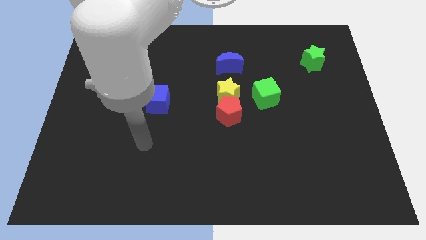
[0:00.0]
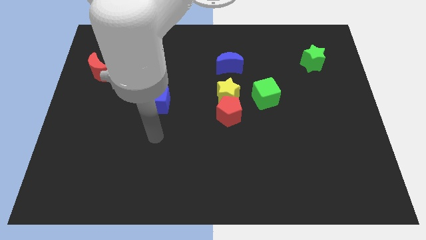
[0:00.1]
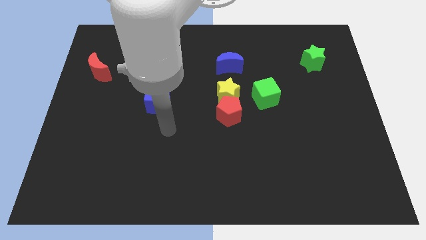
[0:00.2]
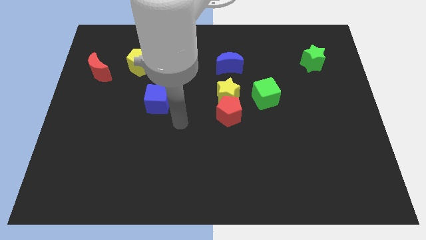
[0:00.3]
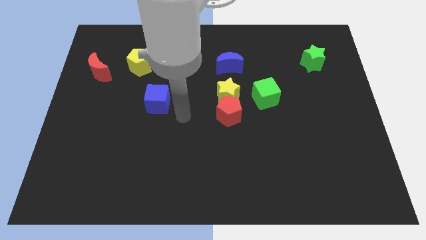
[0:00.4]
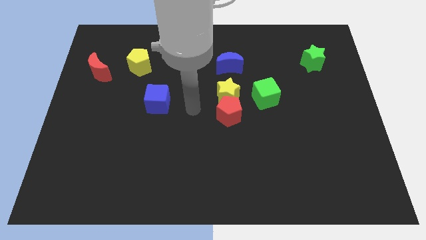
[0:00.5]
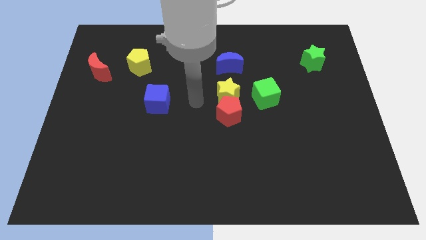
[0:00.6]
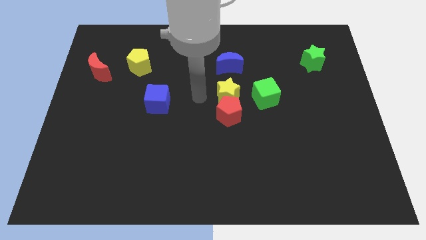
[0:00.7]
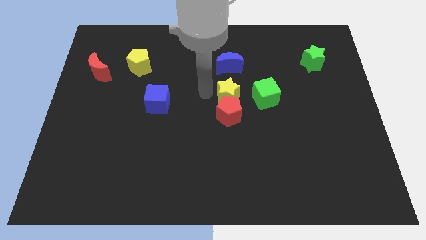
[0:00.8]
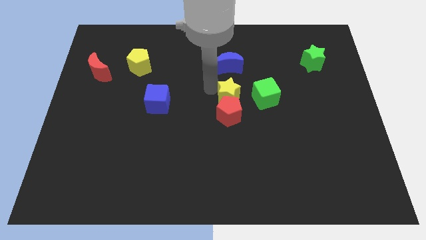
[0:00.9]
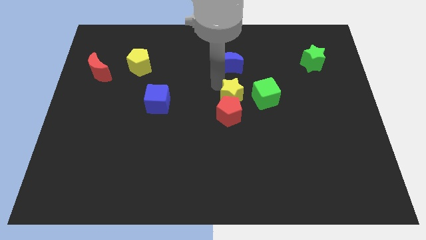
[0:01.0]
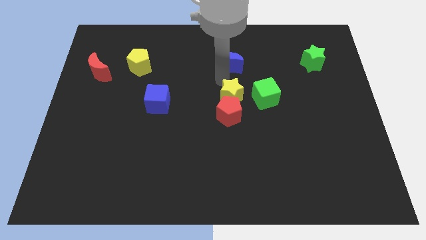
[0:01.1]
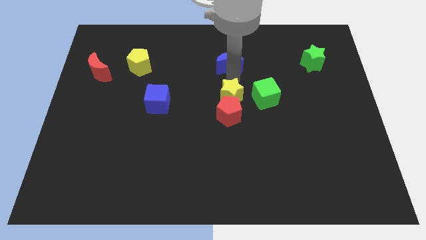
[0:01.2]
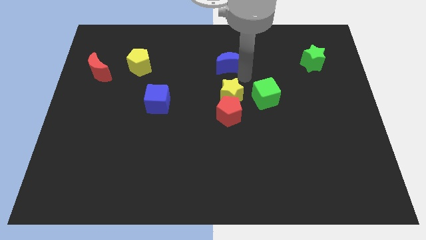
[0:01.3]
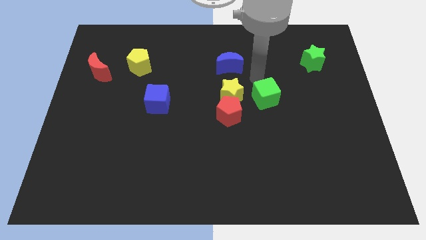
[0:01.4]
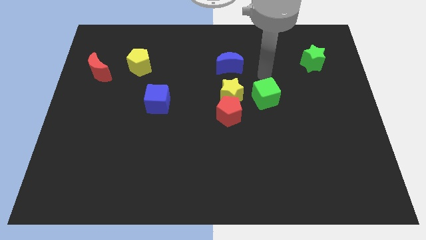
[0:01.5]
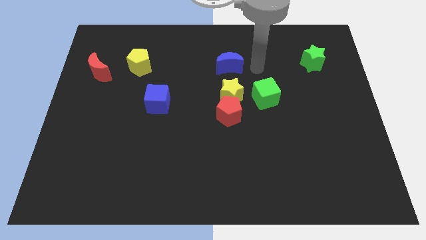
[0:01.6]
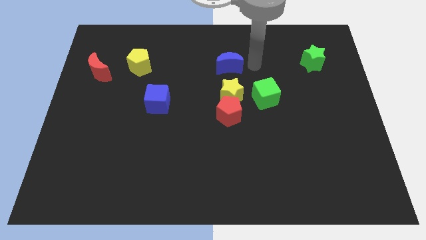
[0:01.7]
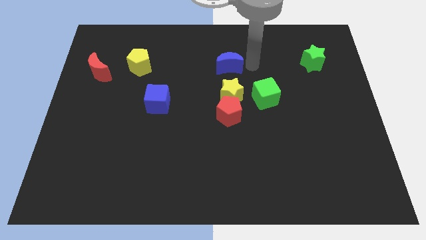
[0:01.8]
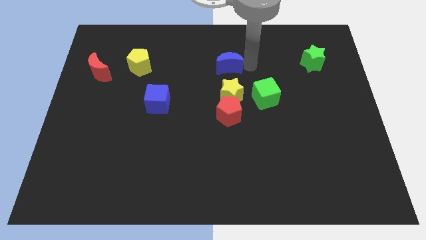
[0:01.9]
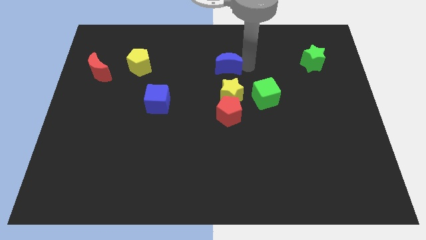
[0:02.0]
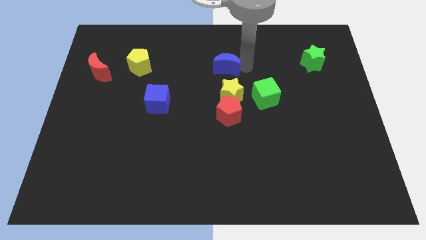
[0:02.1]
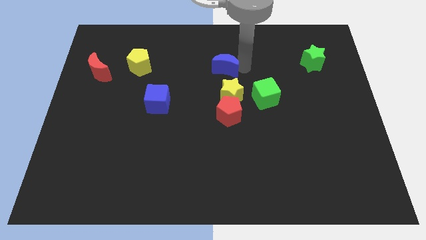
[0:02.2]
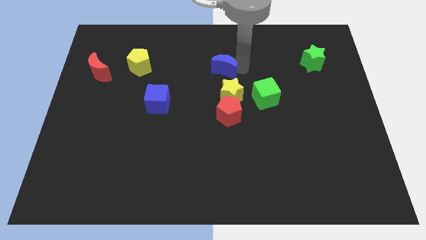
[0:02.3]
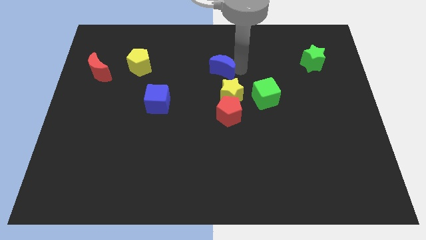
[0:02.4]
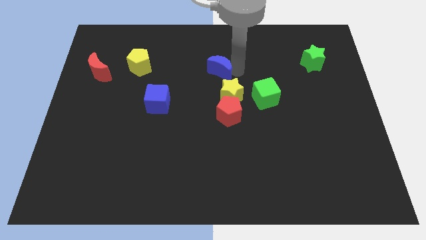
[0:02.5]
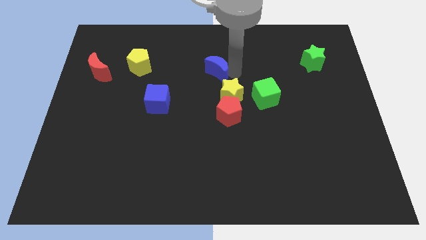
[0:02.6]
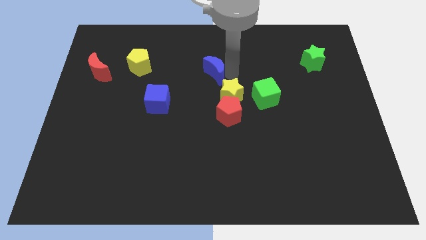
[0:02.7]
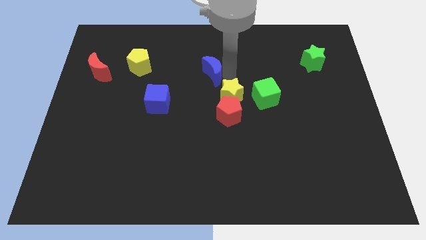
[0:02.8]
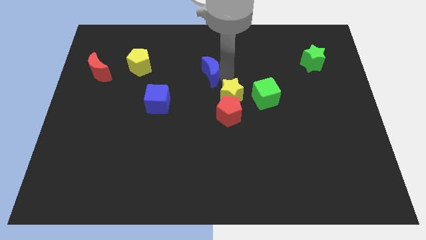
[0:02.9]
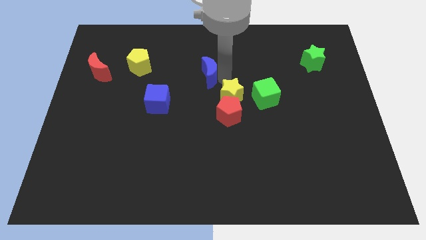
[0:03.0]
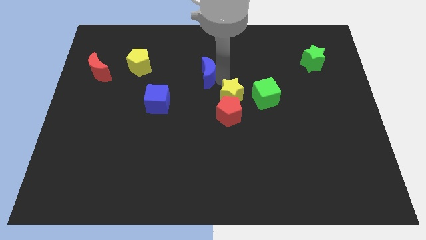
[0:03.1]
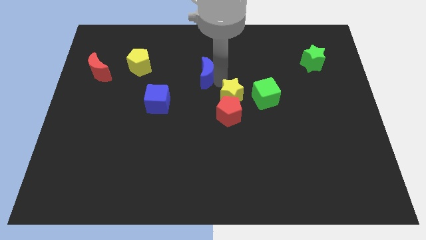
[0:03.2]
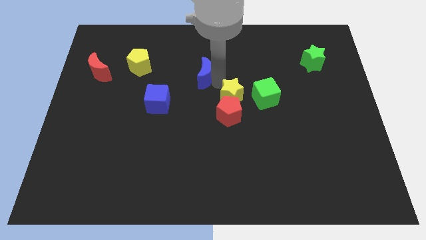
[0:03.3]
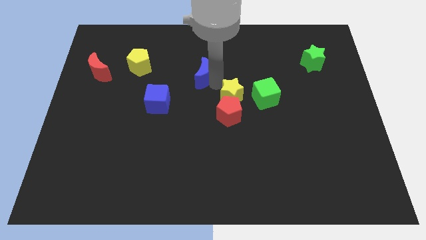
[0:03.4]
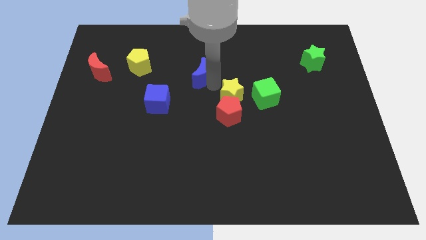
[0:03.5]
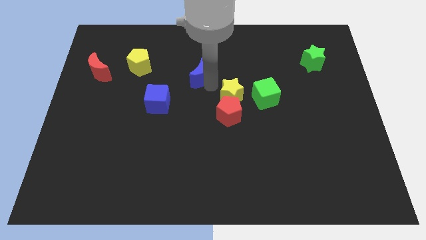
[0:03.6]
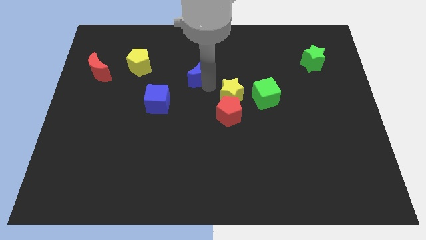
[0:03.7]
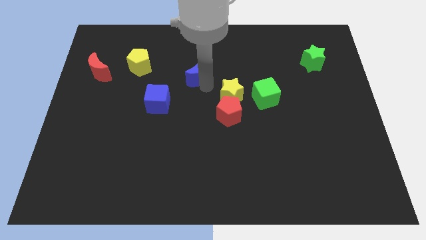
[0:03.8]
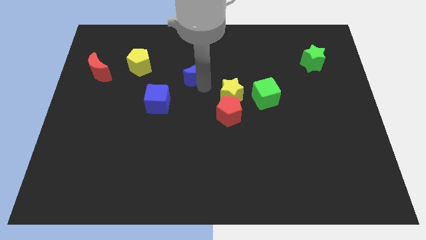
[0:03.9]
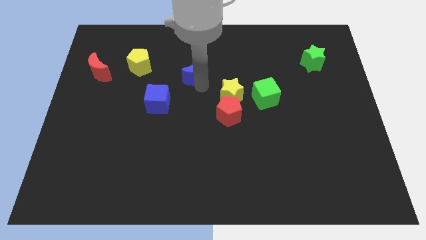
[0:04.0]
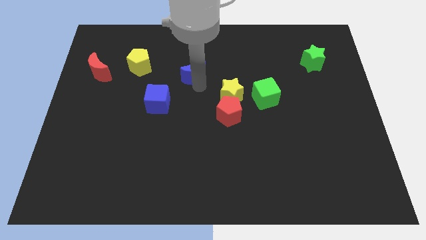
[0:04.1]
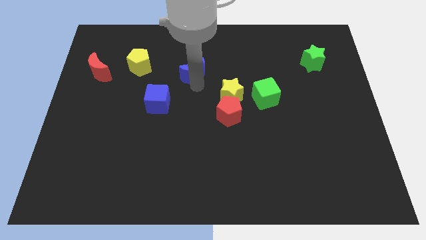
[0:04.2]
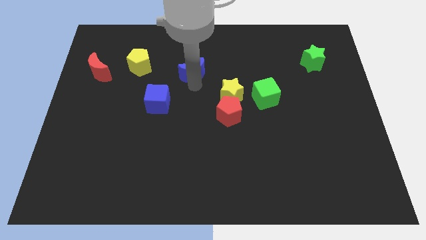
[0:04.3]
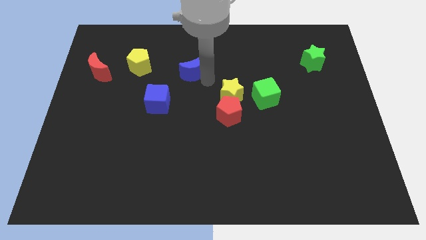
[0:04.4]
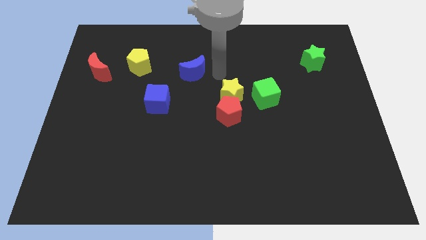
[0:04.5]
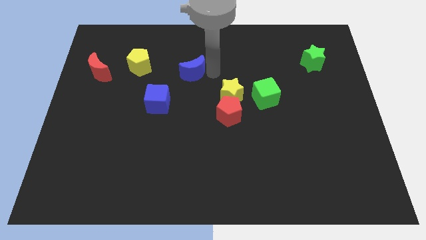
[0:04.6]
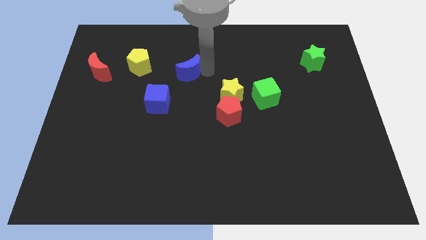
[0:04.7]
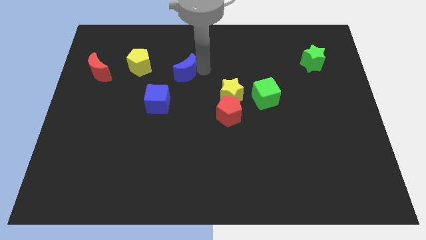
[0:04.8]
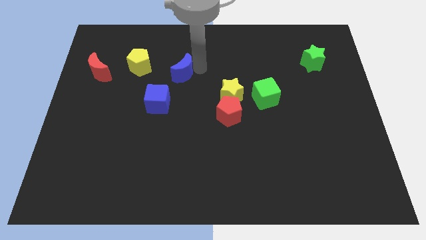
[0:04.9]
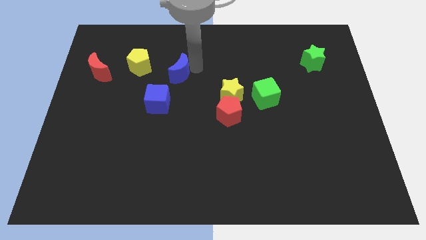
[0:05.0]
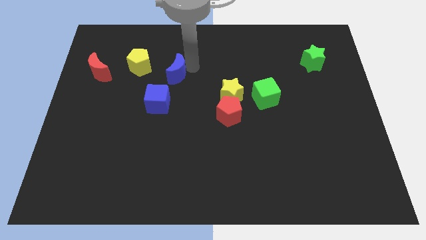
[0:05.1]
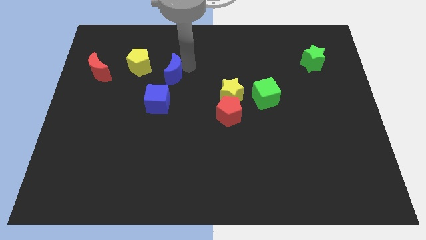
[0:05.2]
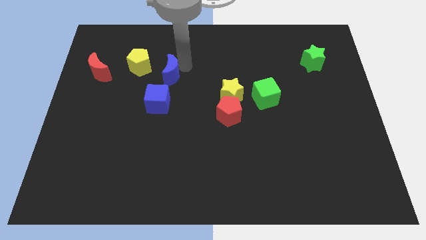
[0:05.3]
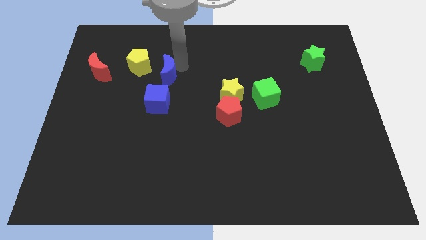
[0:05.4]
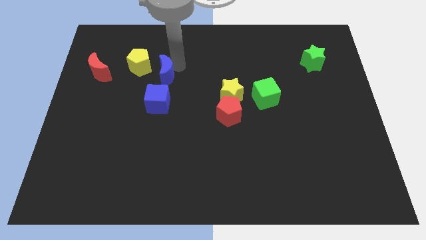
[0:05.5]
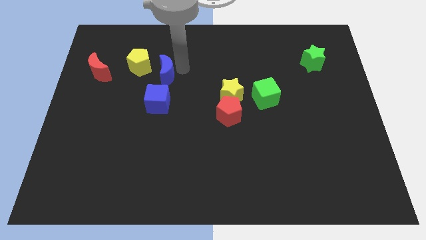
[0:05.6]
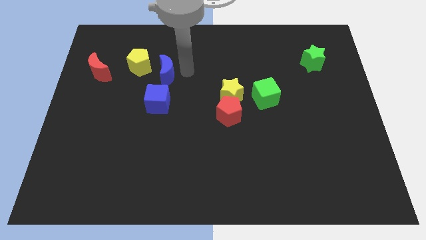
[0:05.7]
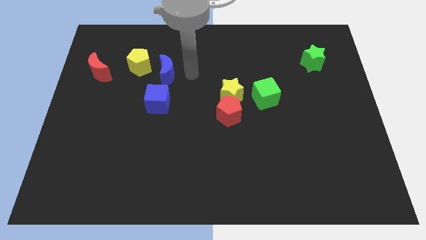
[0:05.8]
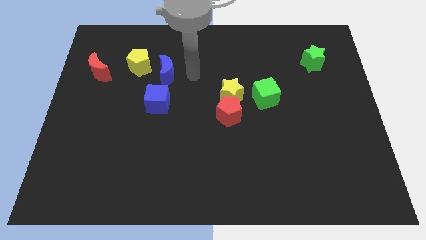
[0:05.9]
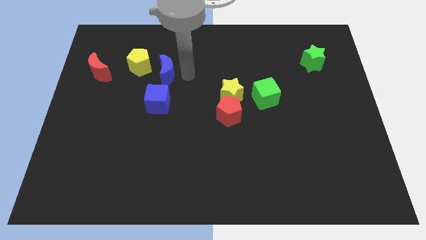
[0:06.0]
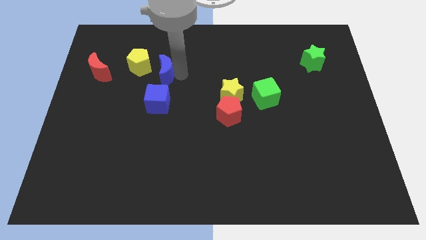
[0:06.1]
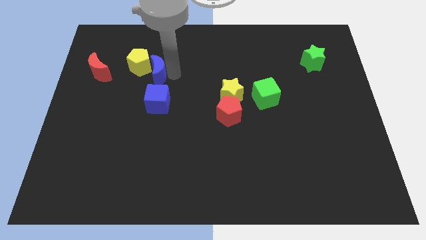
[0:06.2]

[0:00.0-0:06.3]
slide the blue moon just right of the red moon
